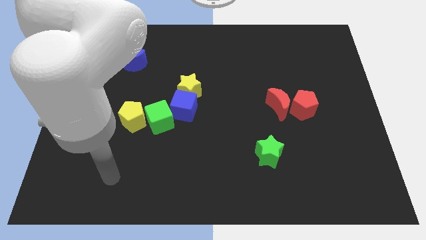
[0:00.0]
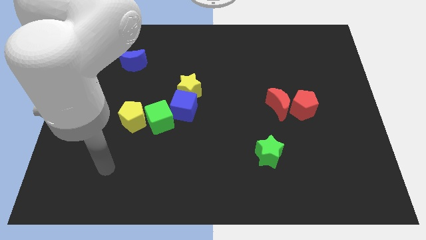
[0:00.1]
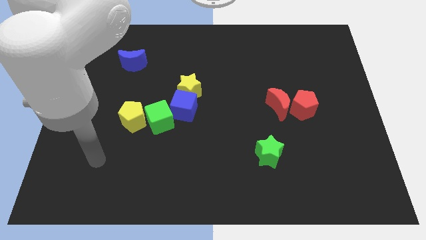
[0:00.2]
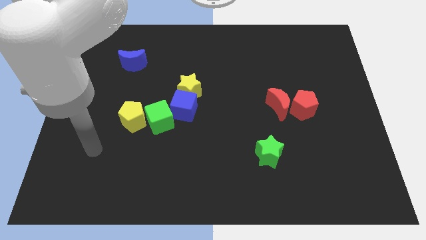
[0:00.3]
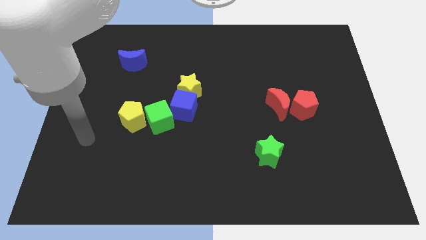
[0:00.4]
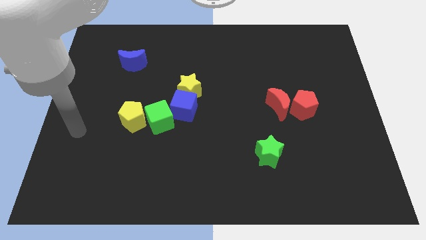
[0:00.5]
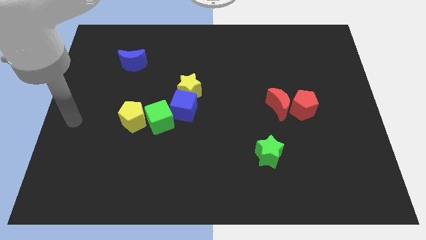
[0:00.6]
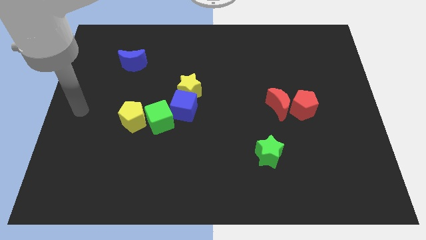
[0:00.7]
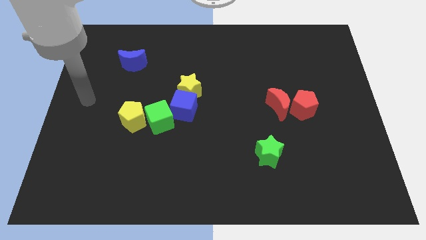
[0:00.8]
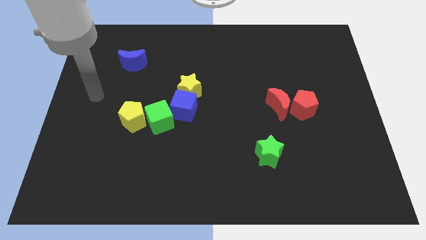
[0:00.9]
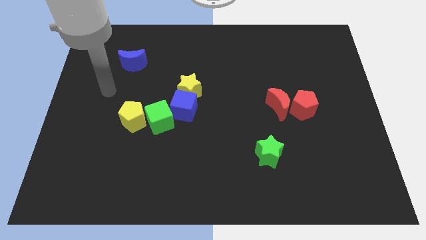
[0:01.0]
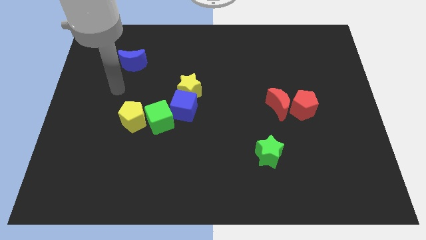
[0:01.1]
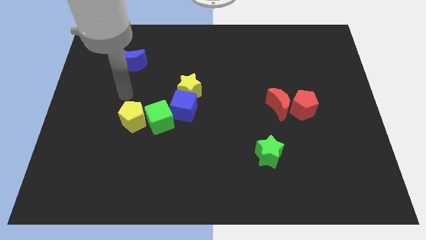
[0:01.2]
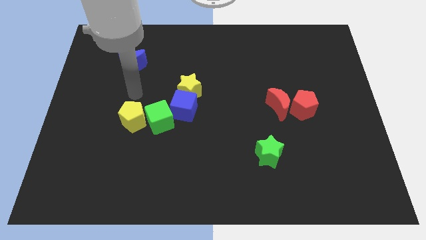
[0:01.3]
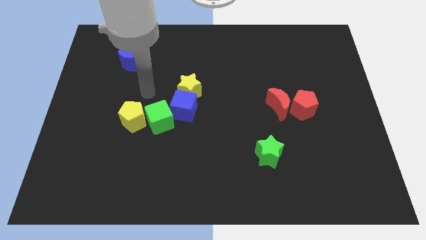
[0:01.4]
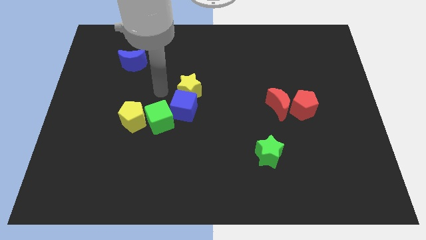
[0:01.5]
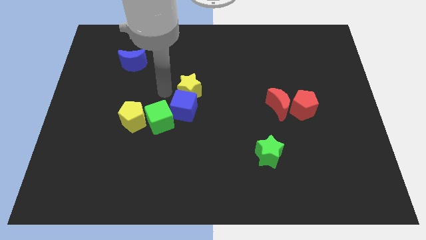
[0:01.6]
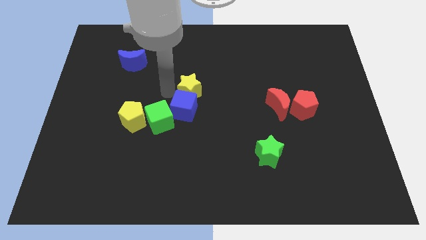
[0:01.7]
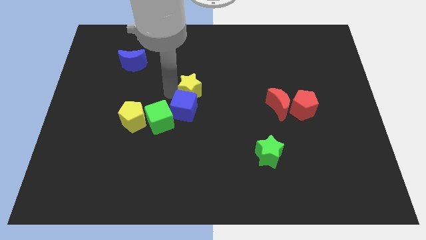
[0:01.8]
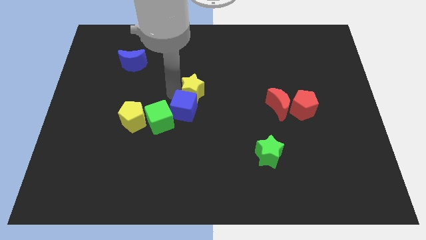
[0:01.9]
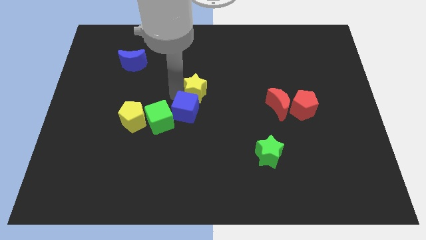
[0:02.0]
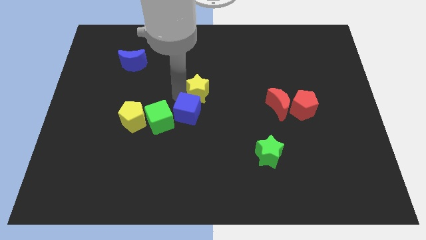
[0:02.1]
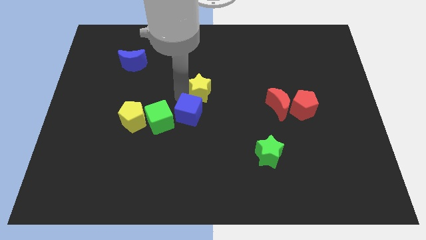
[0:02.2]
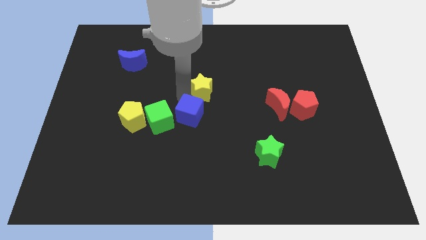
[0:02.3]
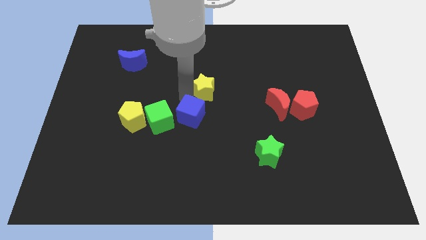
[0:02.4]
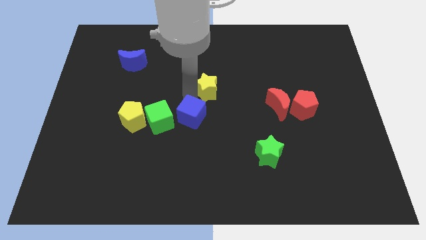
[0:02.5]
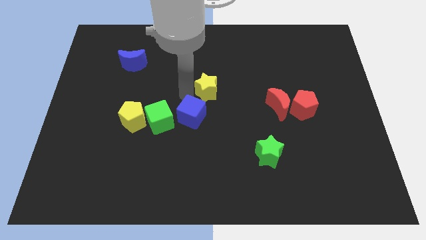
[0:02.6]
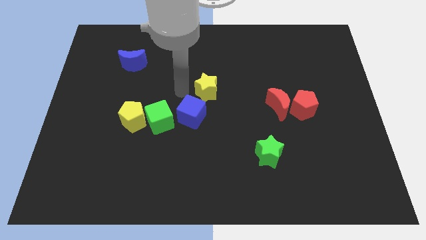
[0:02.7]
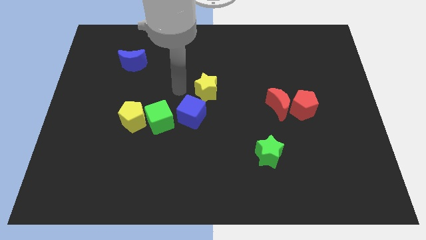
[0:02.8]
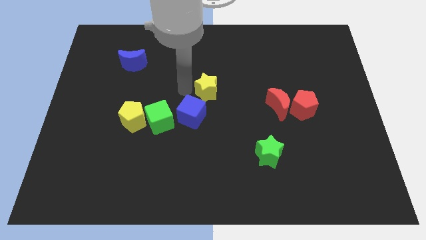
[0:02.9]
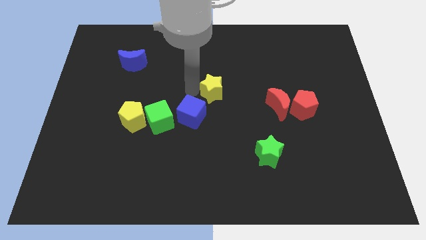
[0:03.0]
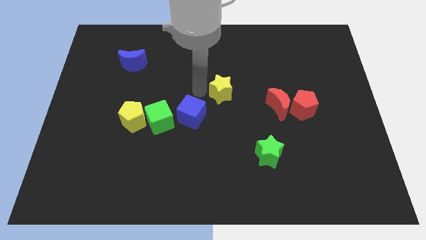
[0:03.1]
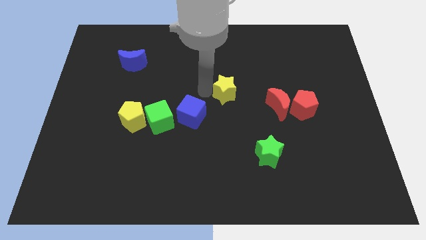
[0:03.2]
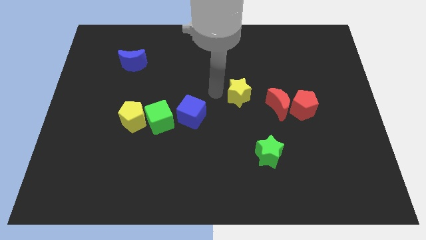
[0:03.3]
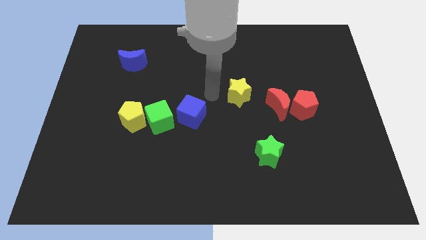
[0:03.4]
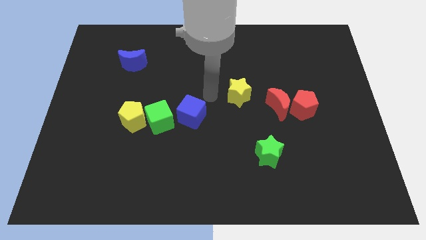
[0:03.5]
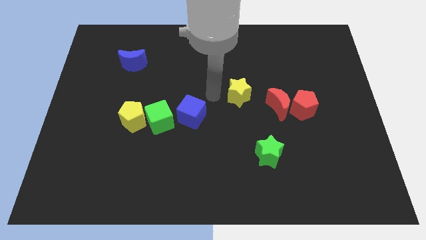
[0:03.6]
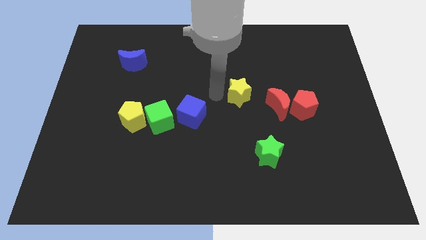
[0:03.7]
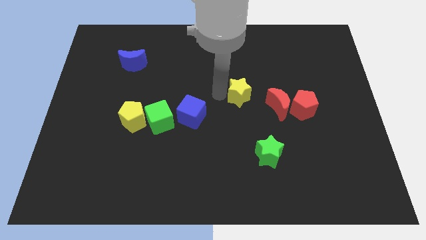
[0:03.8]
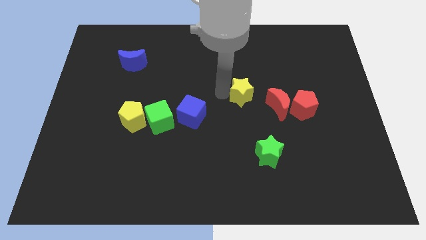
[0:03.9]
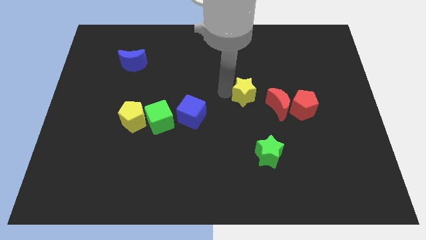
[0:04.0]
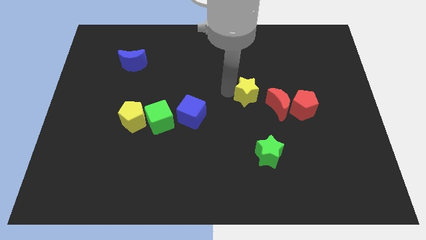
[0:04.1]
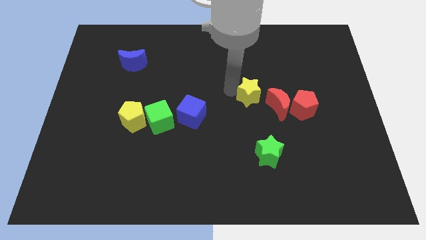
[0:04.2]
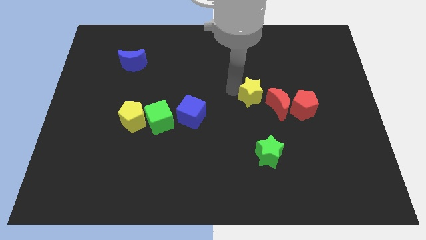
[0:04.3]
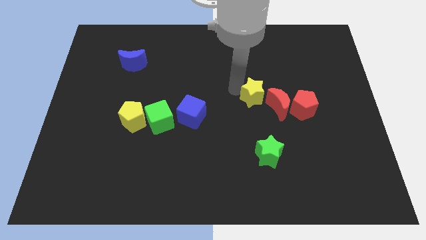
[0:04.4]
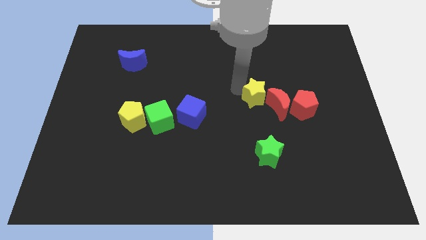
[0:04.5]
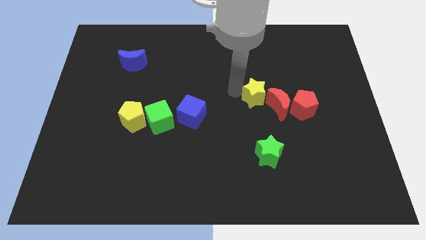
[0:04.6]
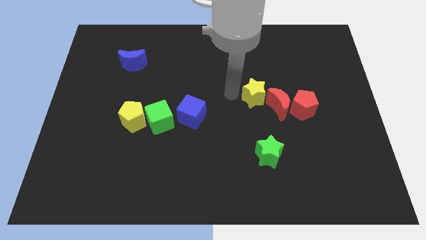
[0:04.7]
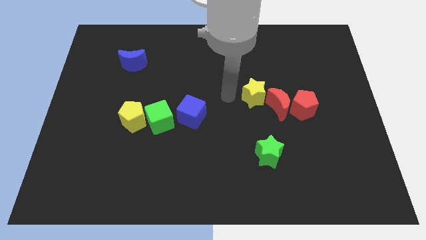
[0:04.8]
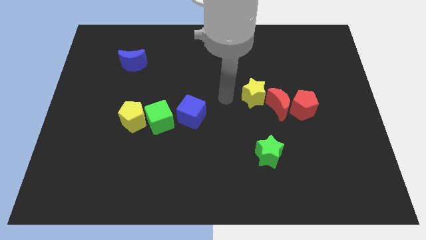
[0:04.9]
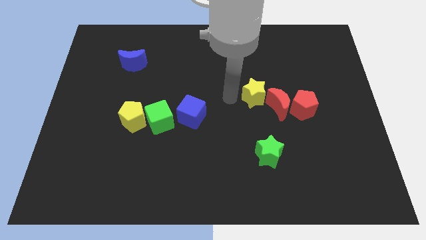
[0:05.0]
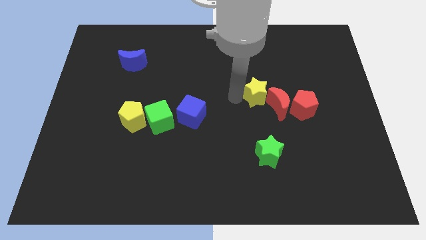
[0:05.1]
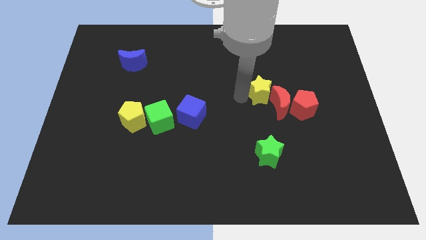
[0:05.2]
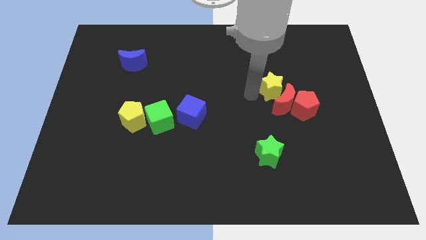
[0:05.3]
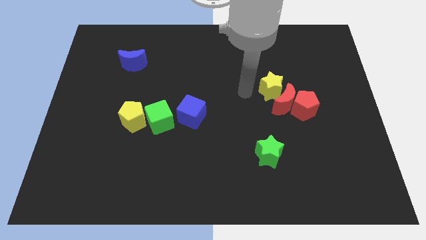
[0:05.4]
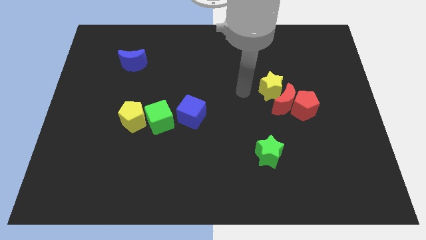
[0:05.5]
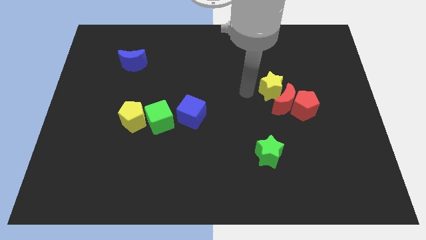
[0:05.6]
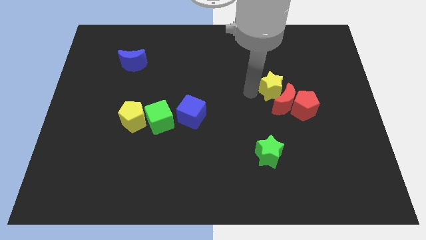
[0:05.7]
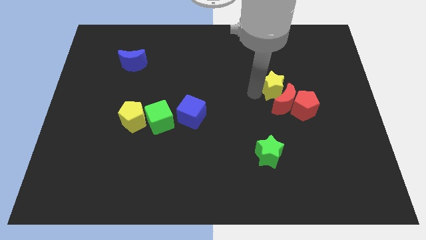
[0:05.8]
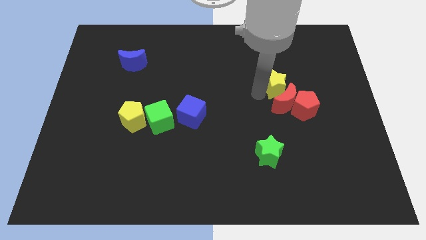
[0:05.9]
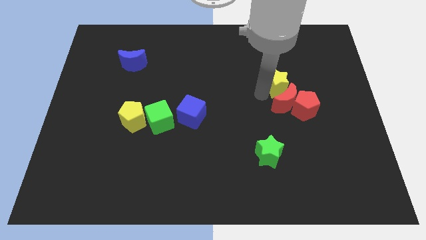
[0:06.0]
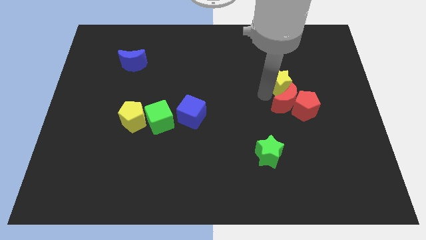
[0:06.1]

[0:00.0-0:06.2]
move the yellow star to the top right of the red moon

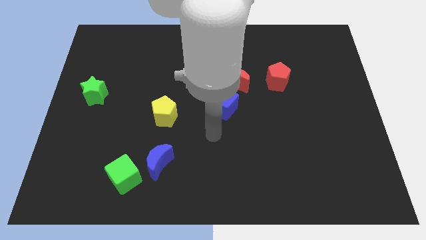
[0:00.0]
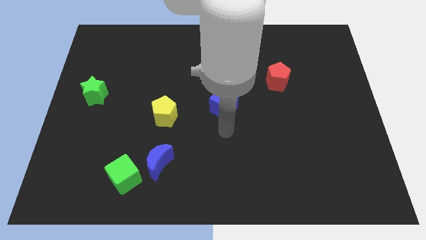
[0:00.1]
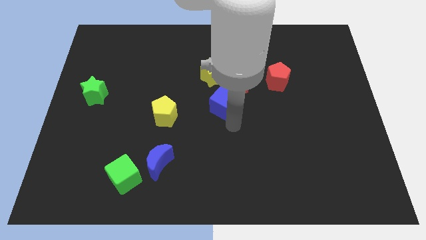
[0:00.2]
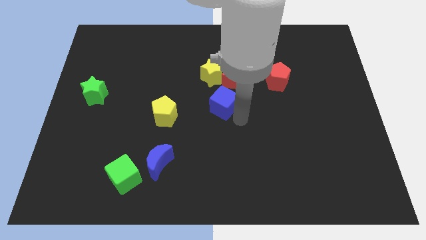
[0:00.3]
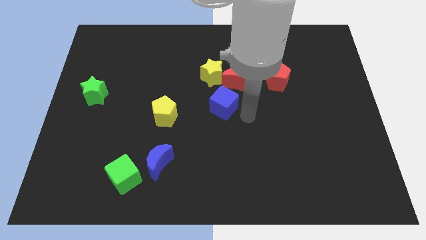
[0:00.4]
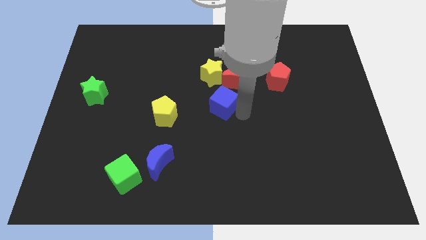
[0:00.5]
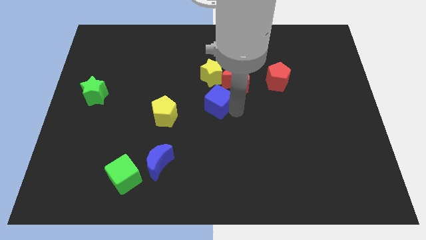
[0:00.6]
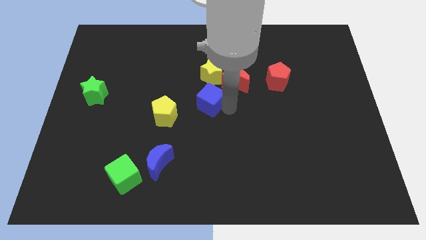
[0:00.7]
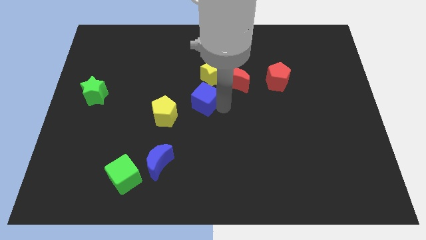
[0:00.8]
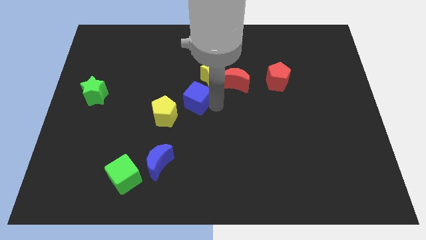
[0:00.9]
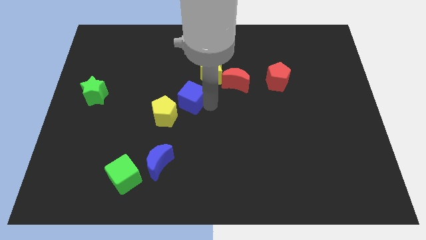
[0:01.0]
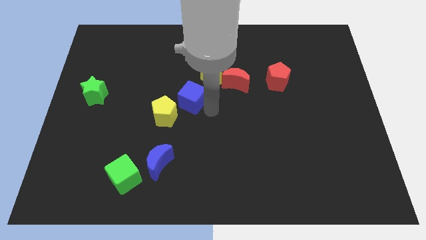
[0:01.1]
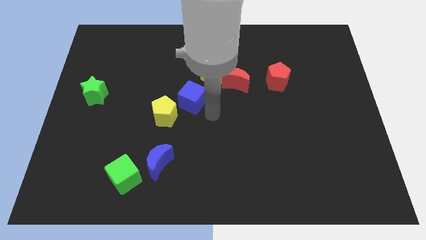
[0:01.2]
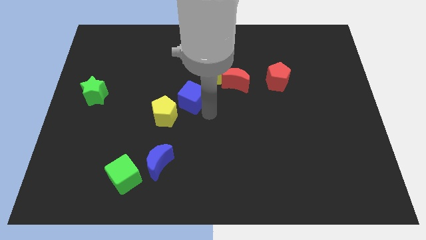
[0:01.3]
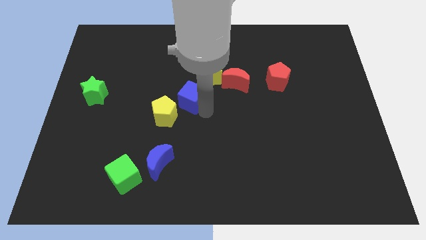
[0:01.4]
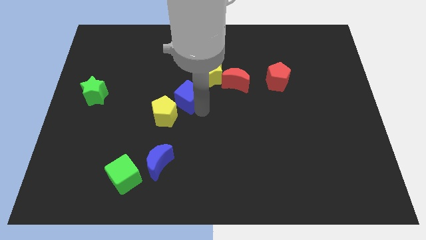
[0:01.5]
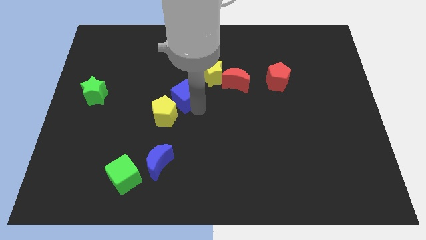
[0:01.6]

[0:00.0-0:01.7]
push the blue cube above the yellow pentagon
